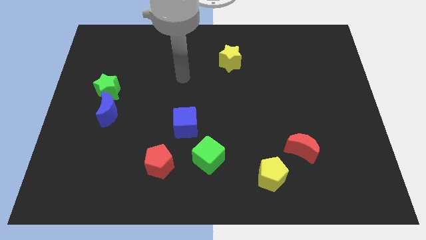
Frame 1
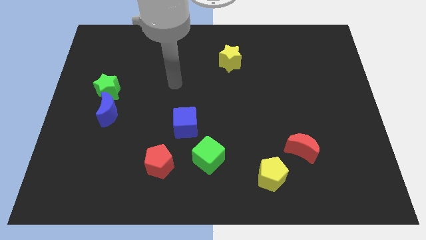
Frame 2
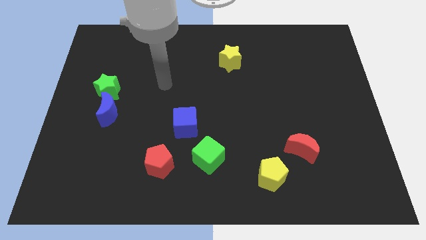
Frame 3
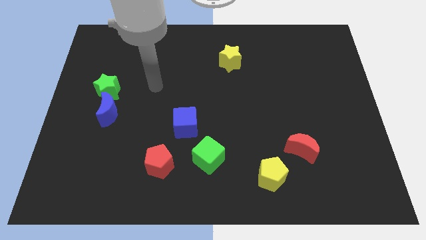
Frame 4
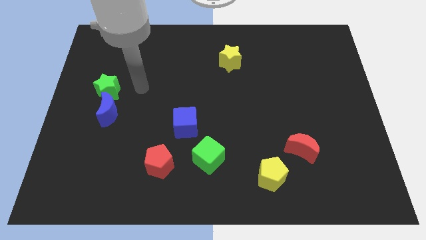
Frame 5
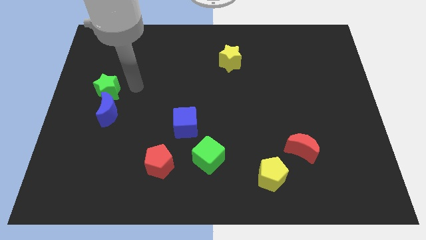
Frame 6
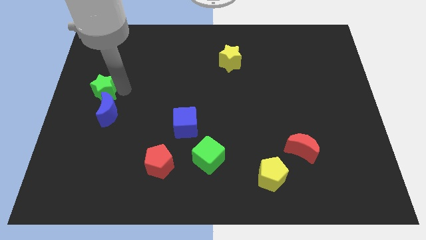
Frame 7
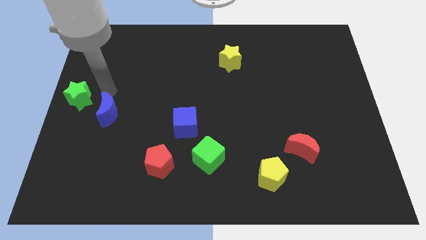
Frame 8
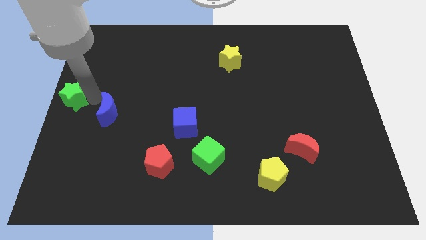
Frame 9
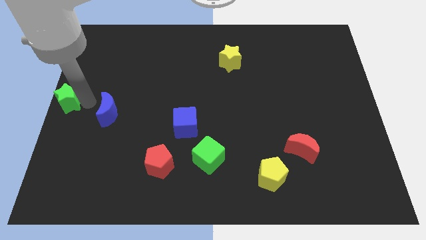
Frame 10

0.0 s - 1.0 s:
separate the blue moon from the green star

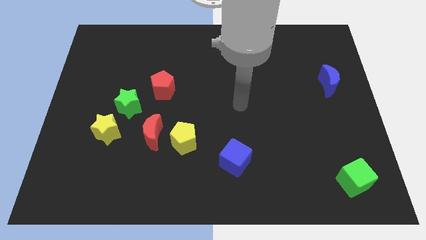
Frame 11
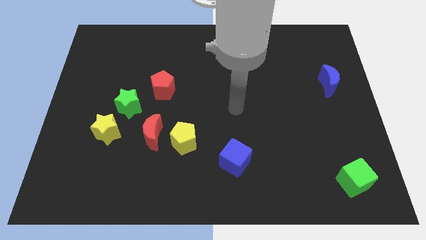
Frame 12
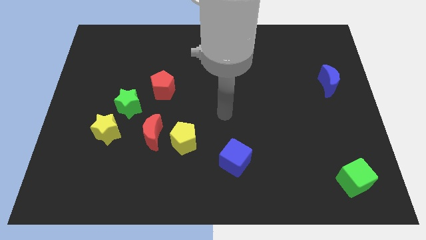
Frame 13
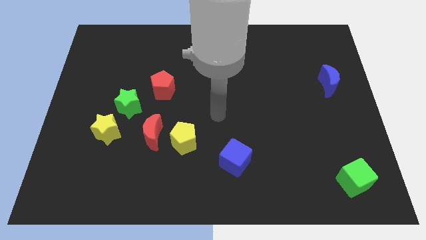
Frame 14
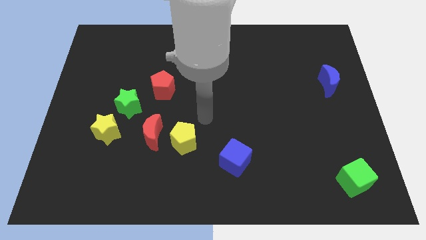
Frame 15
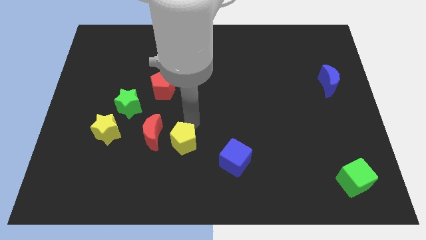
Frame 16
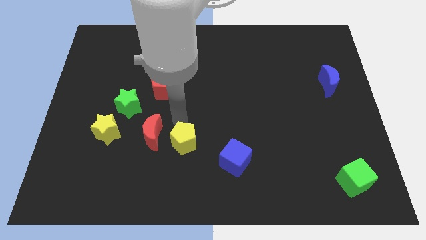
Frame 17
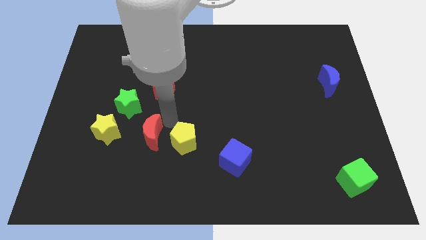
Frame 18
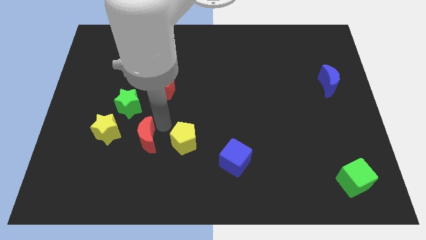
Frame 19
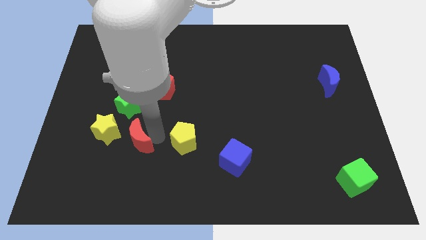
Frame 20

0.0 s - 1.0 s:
pull the yellow pentagon apart from the red moon

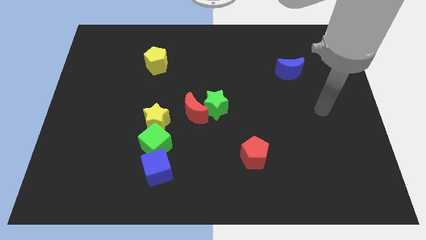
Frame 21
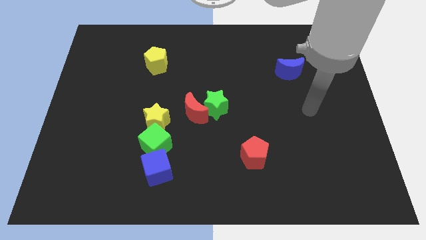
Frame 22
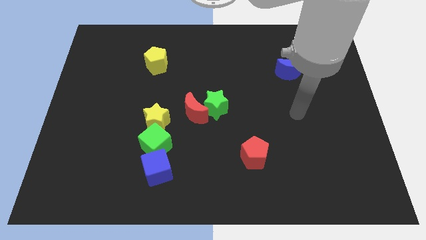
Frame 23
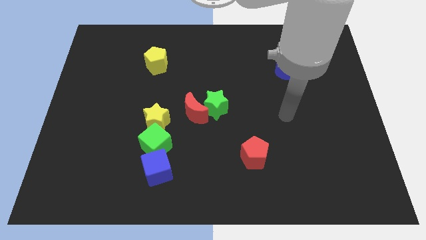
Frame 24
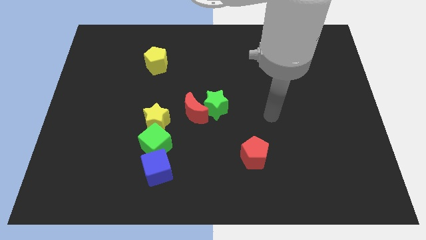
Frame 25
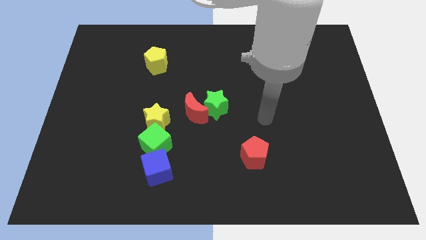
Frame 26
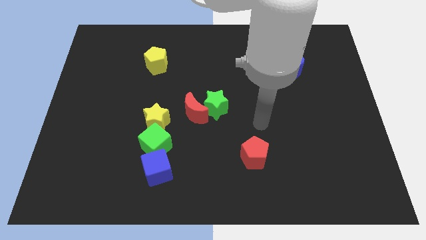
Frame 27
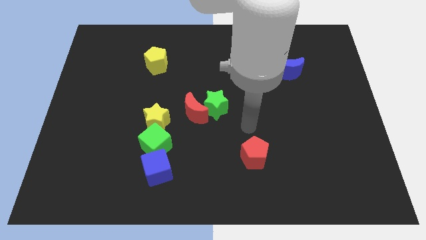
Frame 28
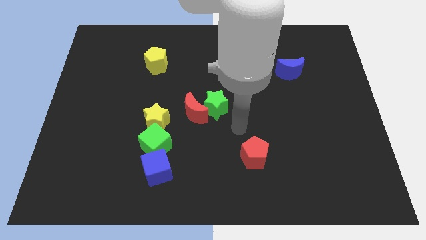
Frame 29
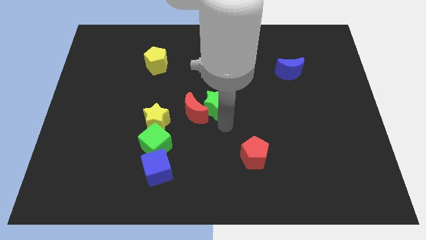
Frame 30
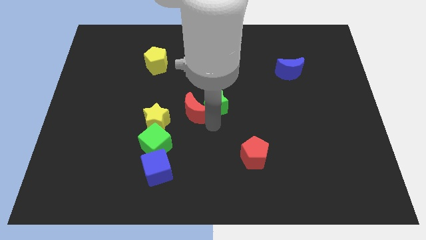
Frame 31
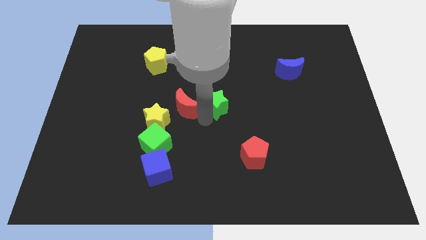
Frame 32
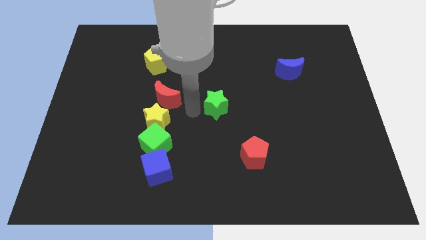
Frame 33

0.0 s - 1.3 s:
move the green star away from the red moon

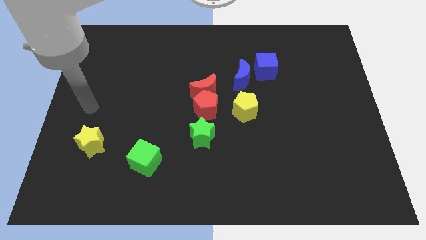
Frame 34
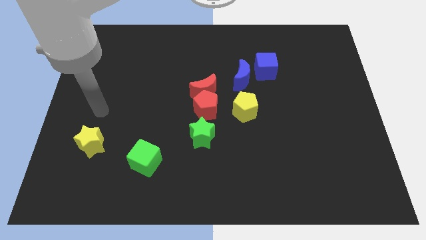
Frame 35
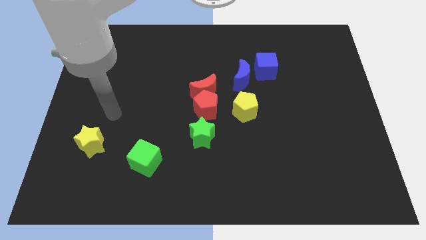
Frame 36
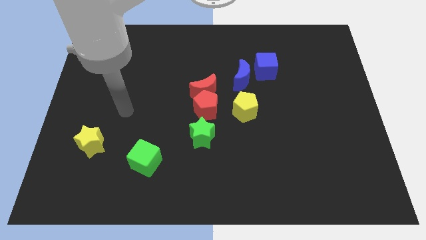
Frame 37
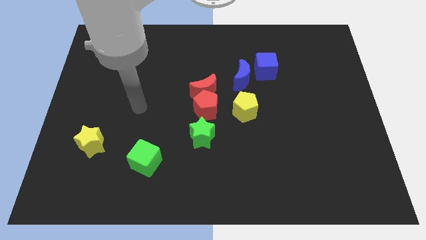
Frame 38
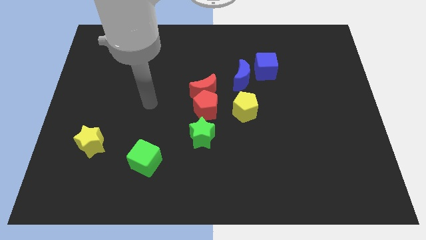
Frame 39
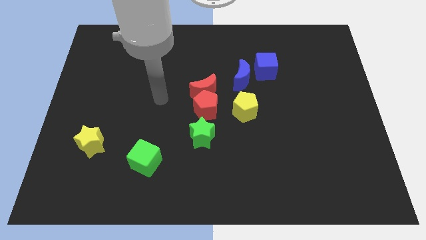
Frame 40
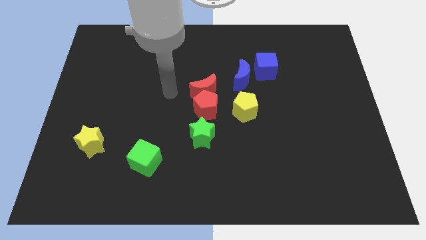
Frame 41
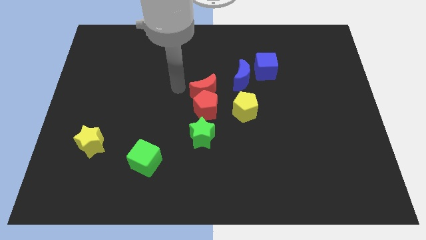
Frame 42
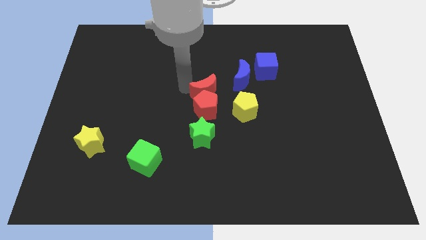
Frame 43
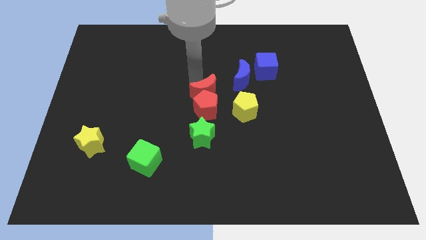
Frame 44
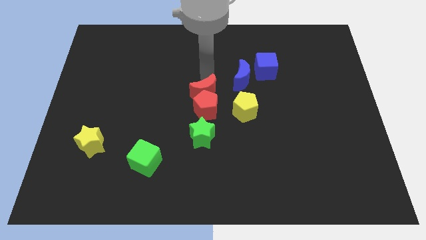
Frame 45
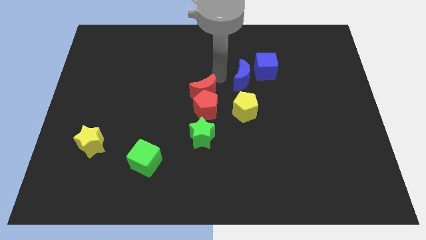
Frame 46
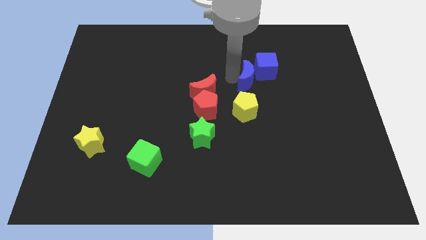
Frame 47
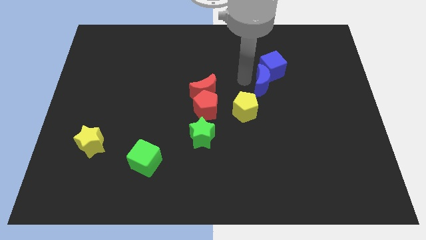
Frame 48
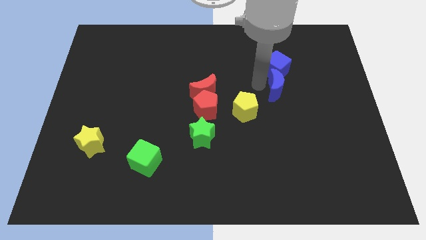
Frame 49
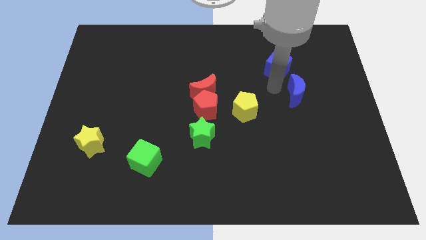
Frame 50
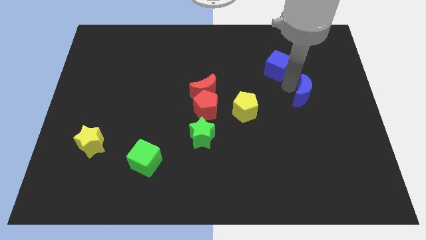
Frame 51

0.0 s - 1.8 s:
move the blue cube away from the blue moon

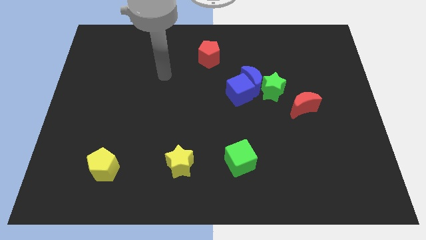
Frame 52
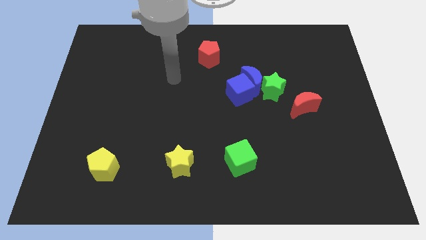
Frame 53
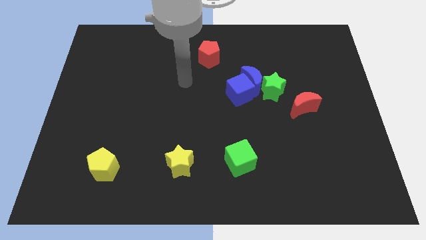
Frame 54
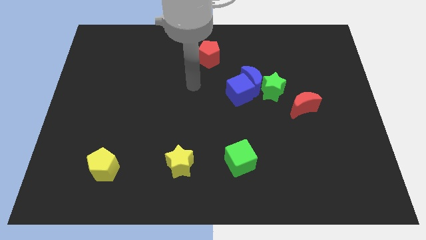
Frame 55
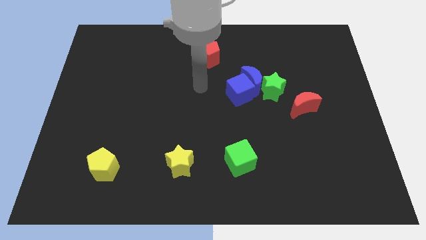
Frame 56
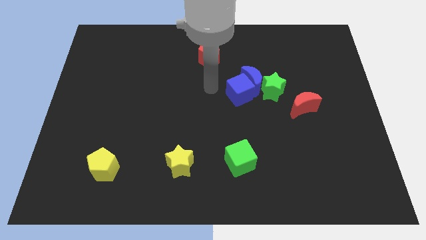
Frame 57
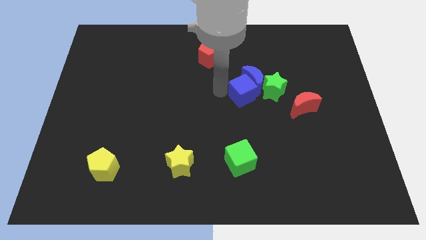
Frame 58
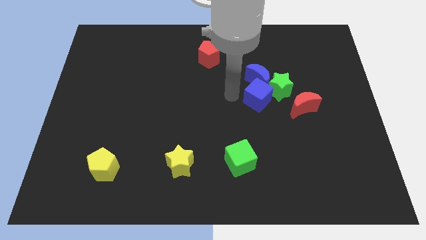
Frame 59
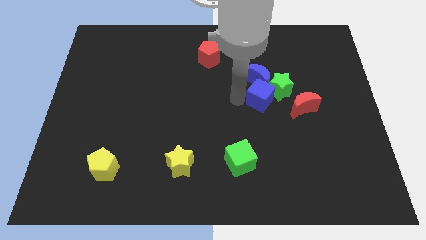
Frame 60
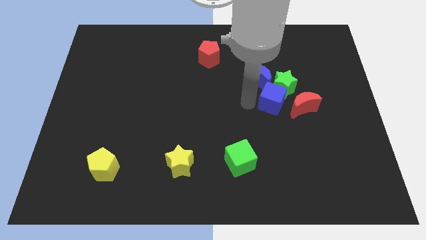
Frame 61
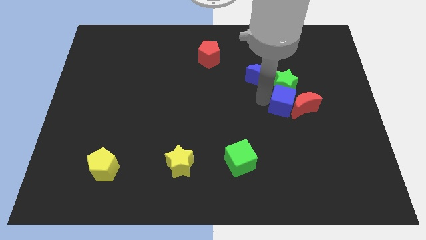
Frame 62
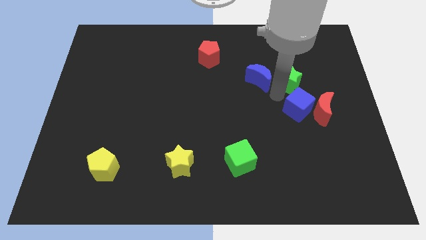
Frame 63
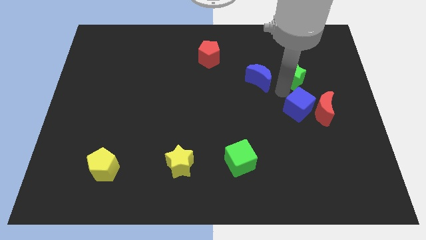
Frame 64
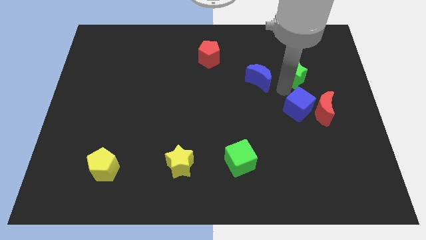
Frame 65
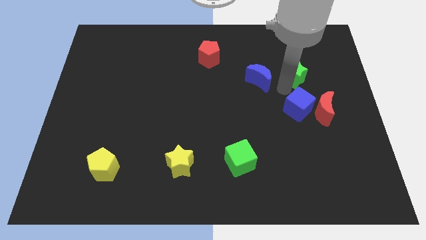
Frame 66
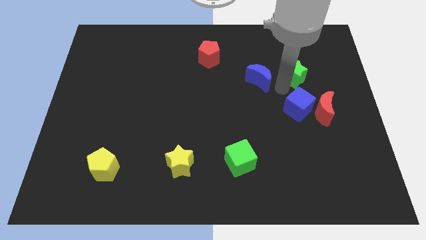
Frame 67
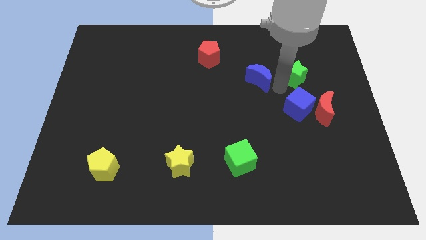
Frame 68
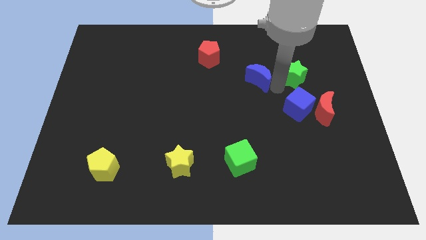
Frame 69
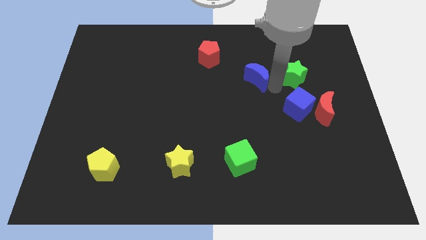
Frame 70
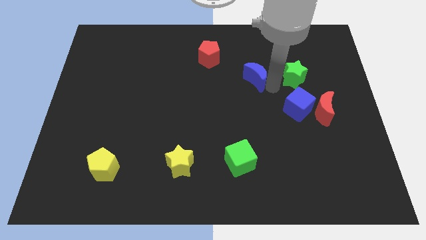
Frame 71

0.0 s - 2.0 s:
separate the blue moon from the blue cube and green star

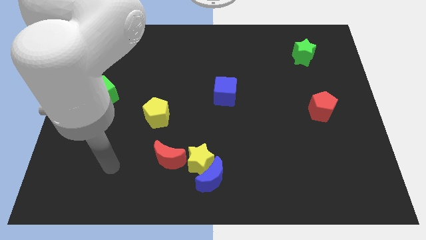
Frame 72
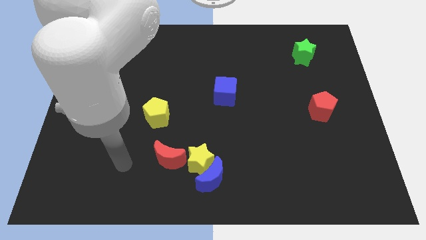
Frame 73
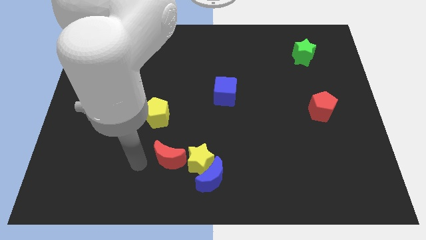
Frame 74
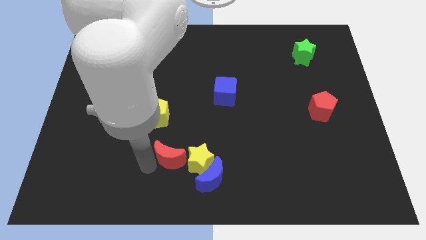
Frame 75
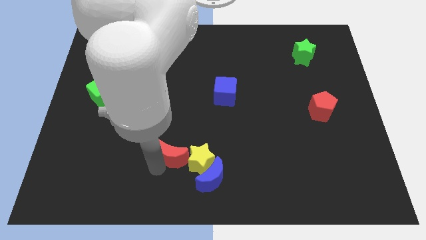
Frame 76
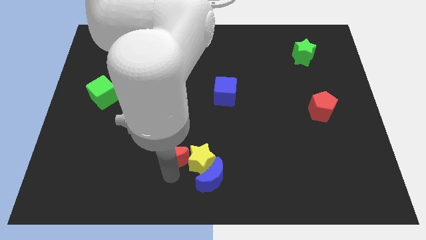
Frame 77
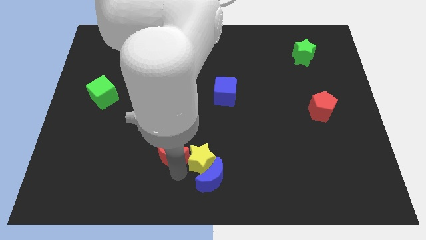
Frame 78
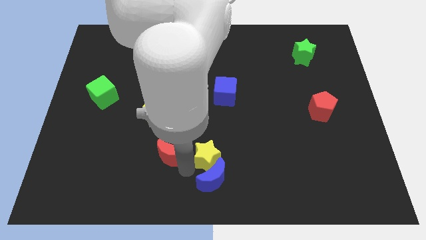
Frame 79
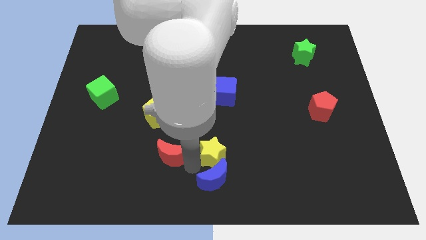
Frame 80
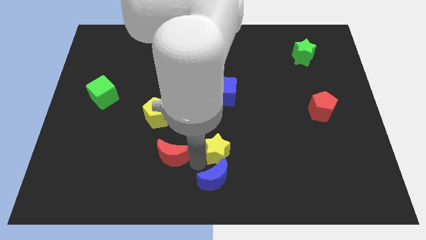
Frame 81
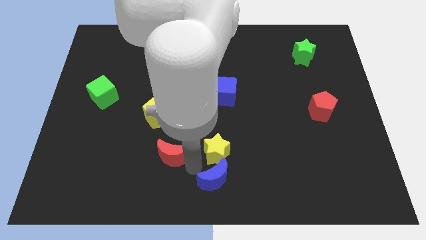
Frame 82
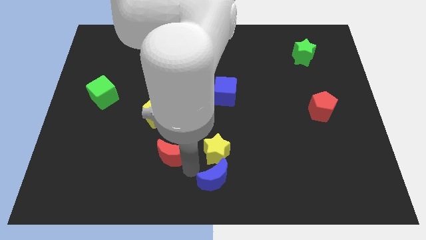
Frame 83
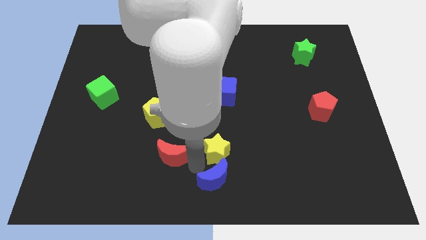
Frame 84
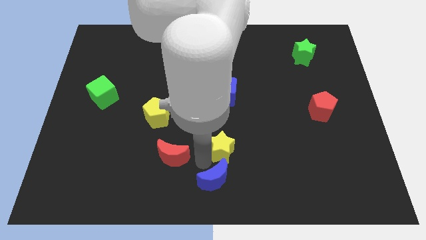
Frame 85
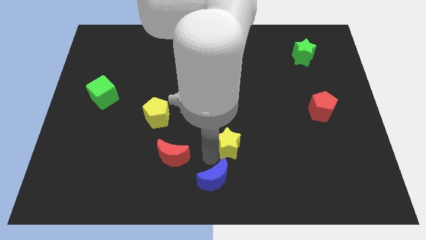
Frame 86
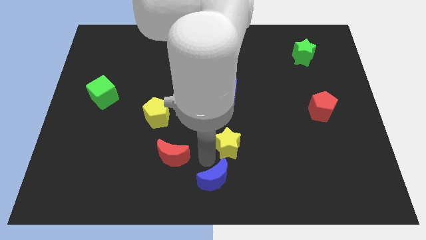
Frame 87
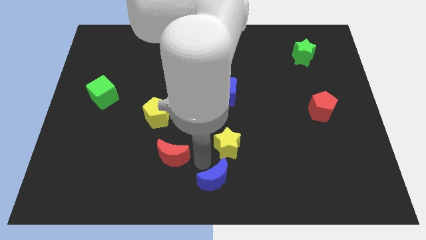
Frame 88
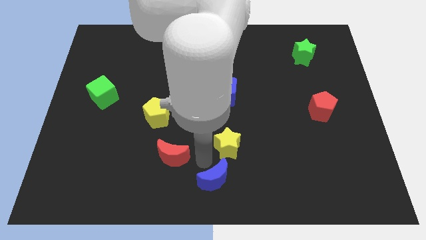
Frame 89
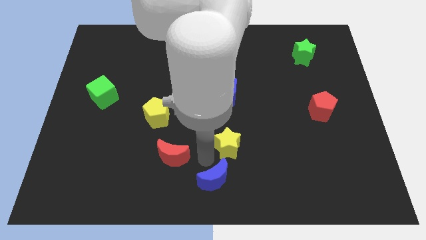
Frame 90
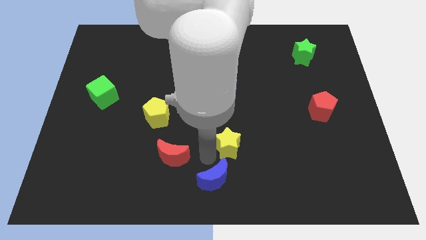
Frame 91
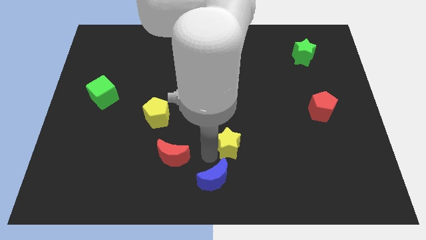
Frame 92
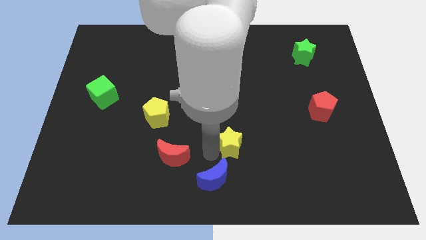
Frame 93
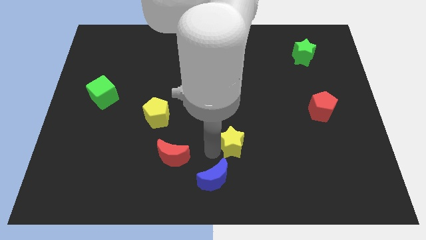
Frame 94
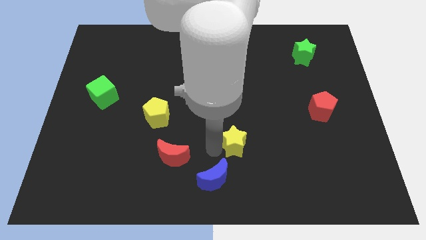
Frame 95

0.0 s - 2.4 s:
separate the yellow star from the blue moon and red moon
